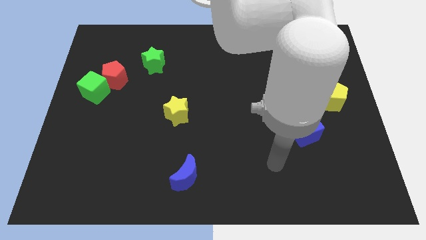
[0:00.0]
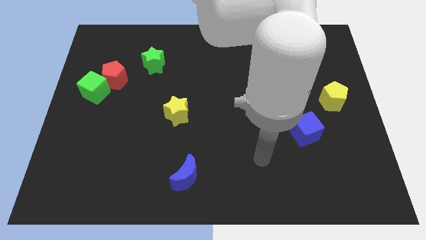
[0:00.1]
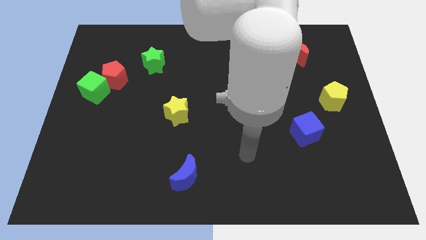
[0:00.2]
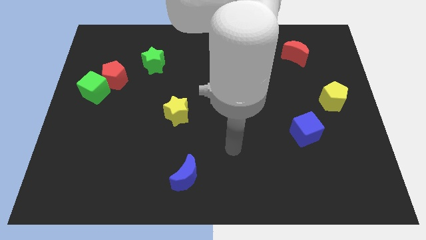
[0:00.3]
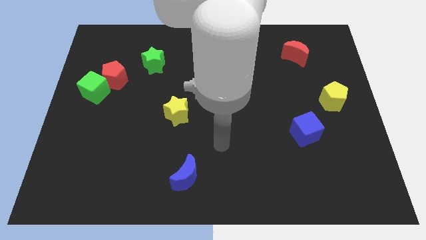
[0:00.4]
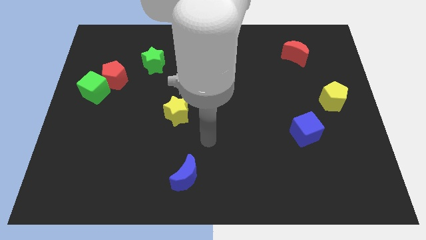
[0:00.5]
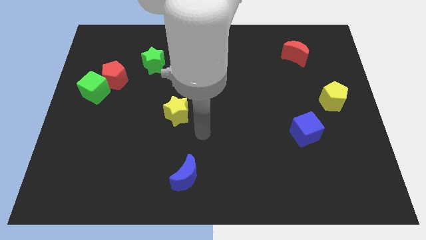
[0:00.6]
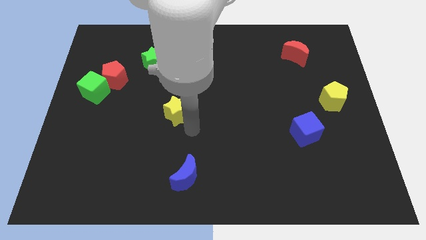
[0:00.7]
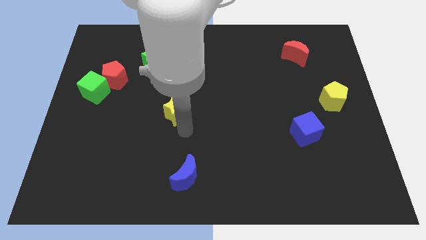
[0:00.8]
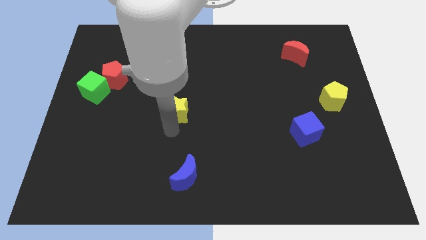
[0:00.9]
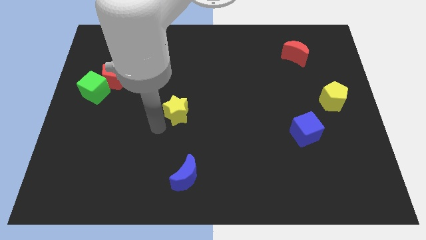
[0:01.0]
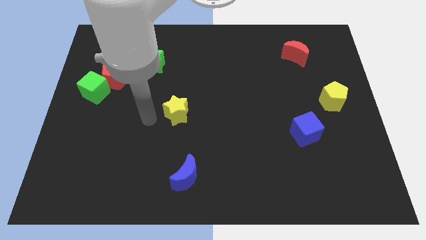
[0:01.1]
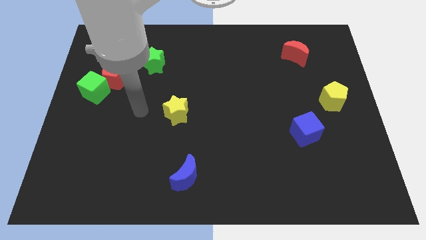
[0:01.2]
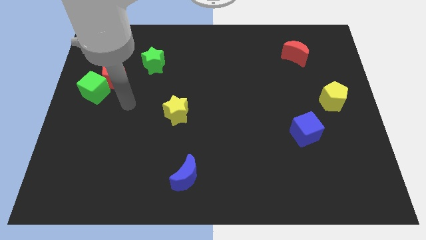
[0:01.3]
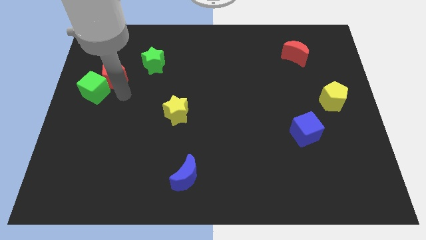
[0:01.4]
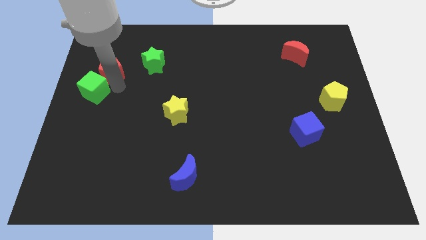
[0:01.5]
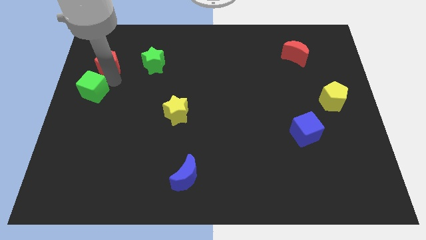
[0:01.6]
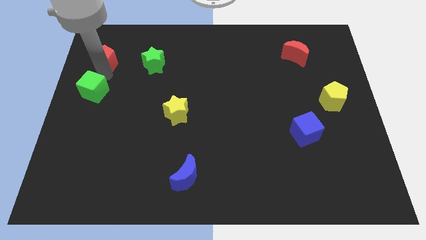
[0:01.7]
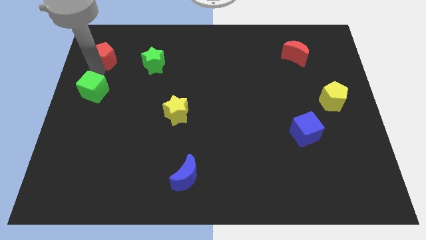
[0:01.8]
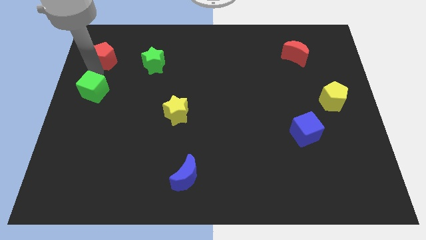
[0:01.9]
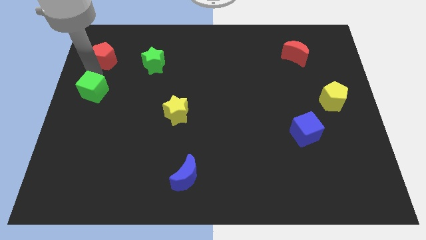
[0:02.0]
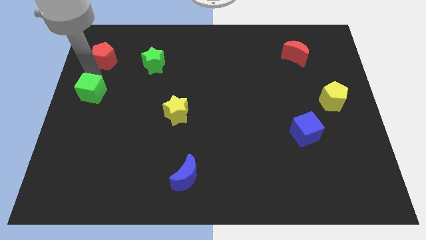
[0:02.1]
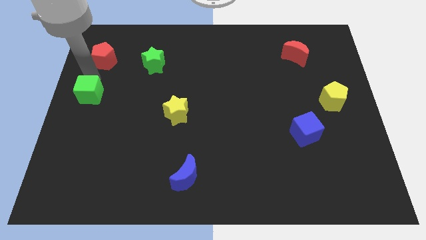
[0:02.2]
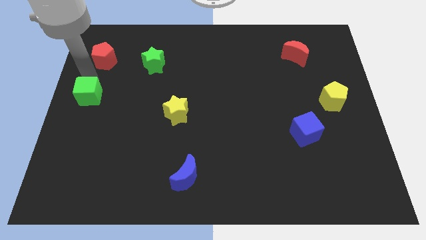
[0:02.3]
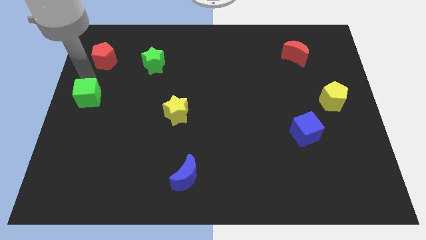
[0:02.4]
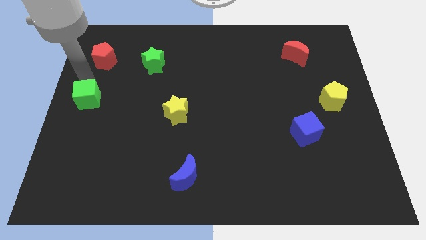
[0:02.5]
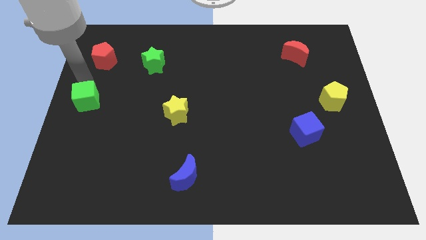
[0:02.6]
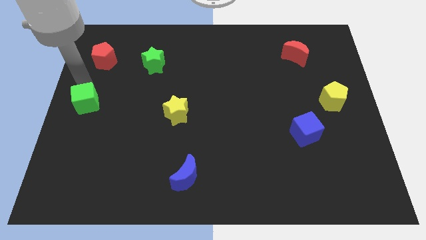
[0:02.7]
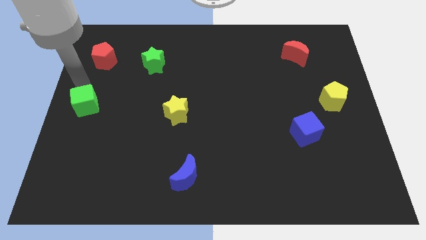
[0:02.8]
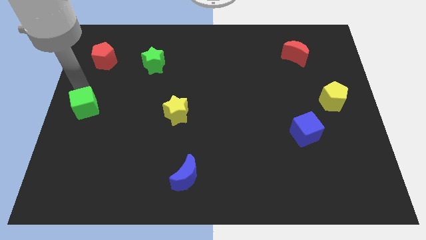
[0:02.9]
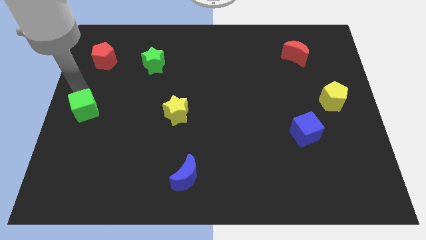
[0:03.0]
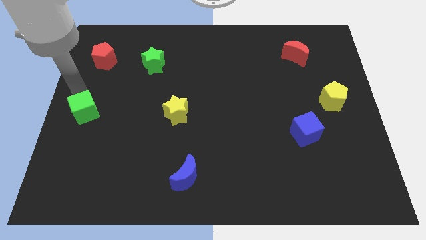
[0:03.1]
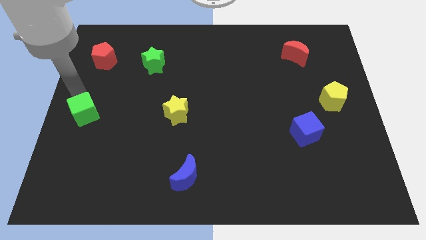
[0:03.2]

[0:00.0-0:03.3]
slide the green cube down a little bit

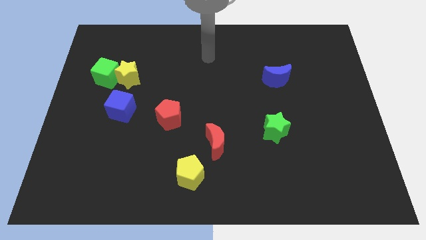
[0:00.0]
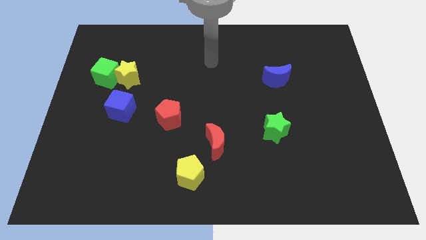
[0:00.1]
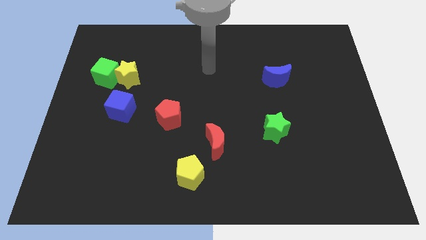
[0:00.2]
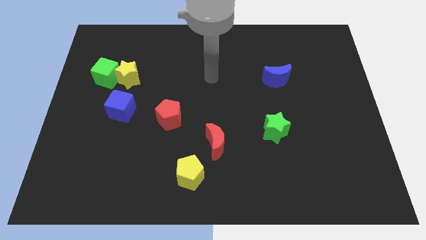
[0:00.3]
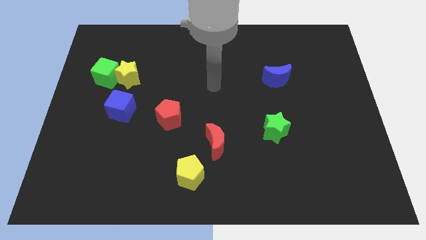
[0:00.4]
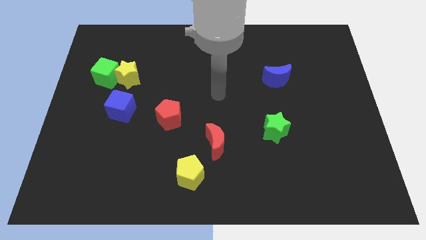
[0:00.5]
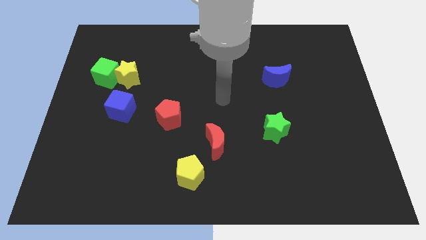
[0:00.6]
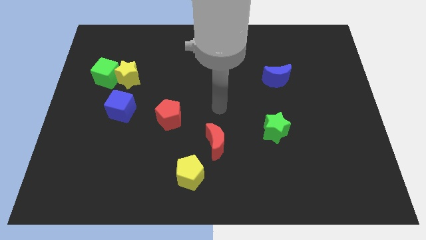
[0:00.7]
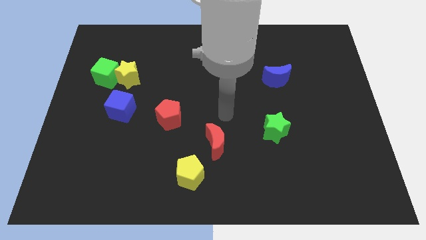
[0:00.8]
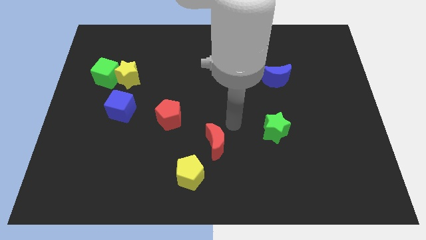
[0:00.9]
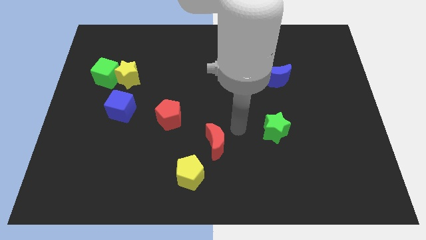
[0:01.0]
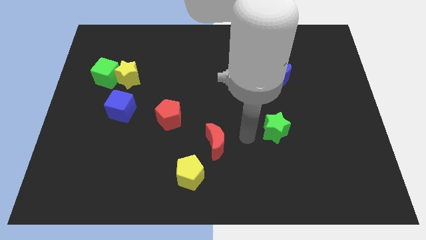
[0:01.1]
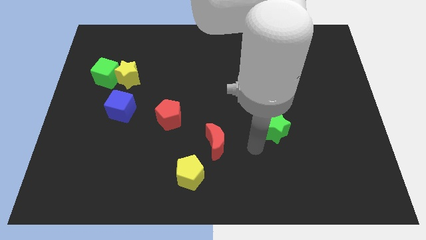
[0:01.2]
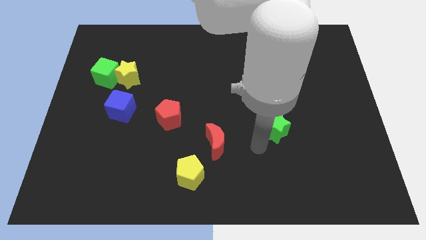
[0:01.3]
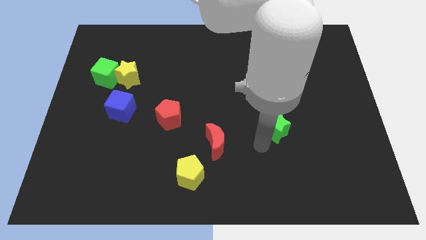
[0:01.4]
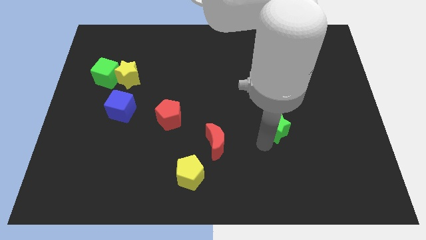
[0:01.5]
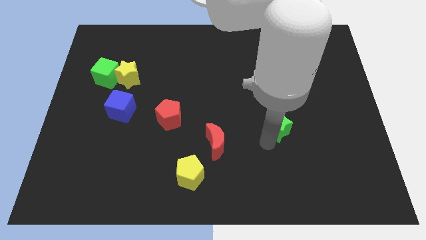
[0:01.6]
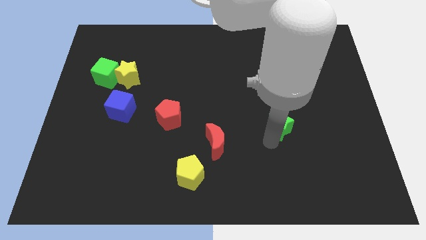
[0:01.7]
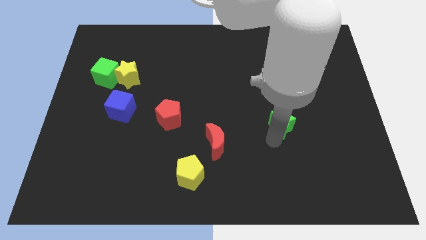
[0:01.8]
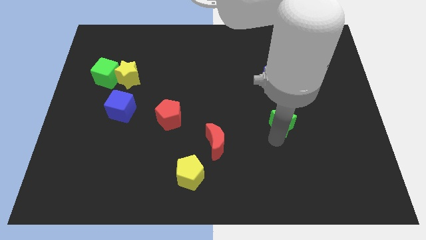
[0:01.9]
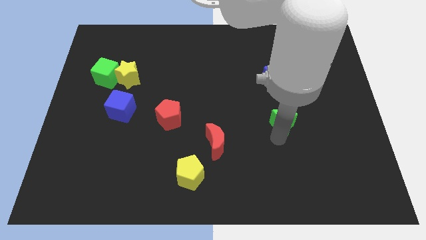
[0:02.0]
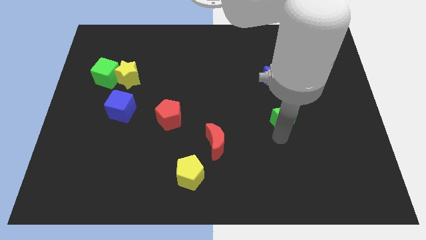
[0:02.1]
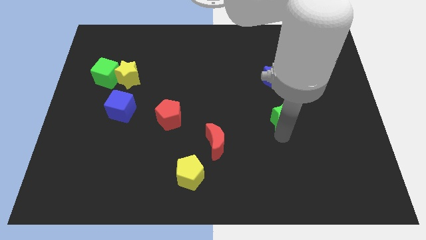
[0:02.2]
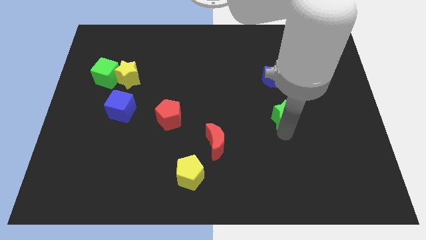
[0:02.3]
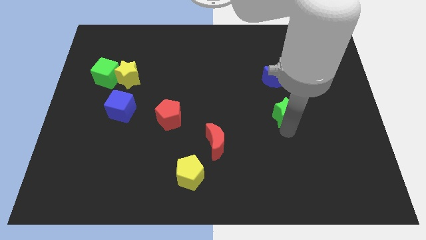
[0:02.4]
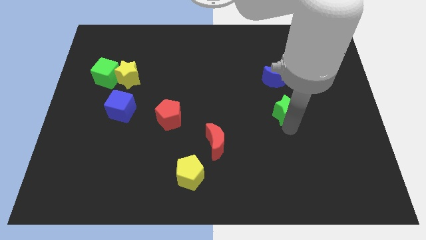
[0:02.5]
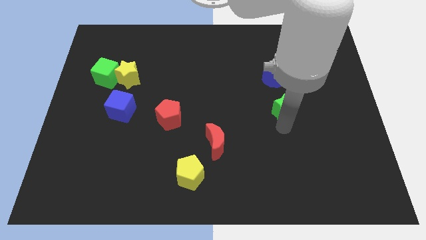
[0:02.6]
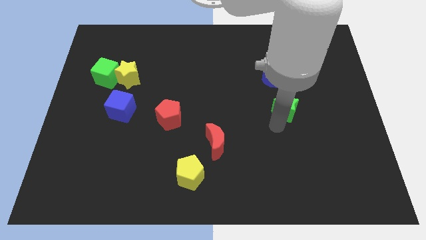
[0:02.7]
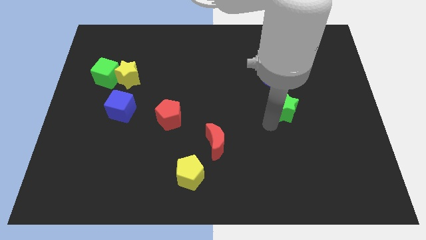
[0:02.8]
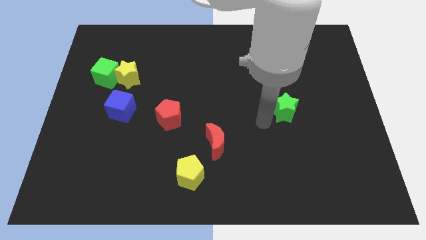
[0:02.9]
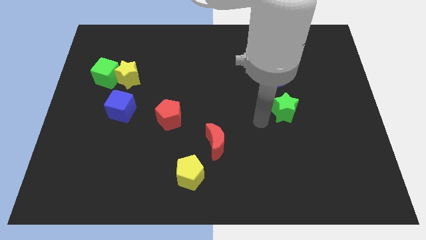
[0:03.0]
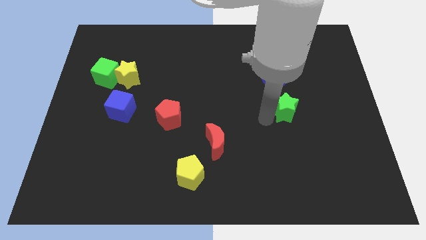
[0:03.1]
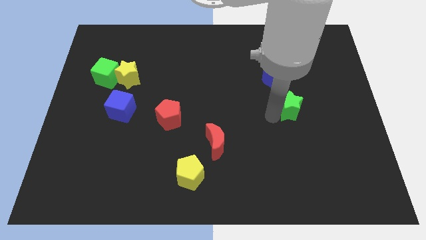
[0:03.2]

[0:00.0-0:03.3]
push the green star upwards and right somewhat

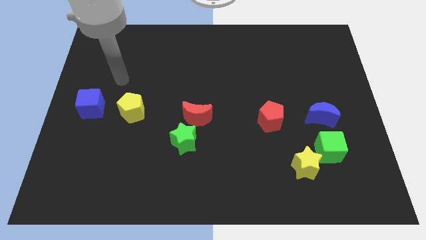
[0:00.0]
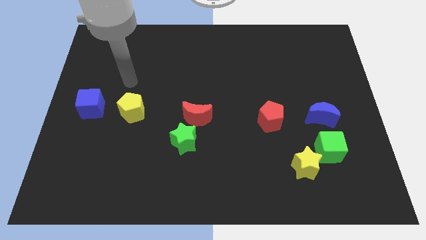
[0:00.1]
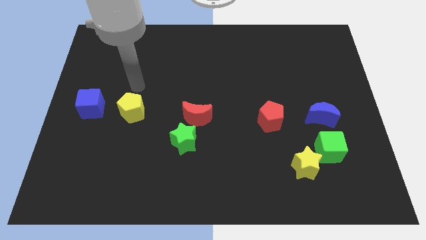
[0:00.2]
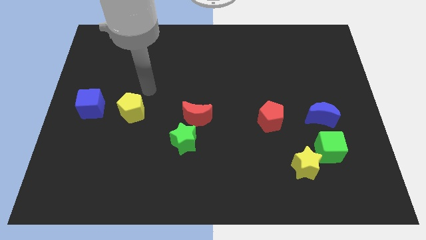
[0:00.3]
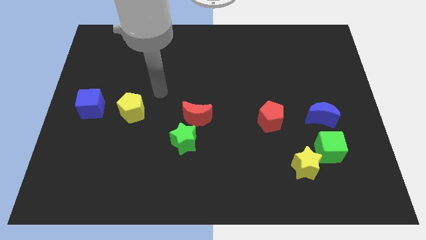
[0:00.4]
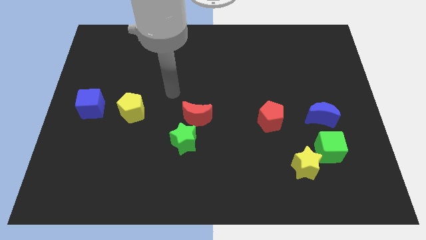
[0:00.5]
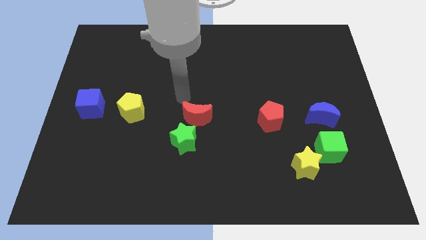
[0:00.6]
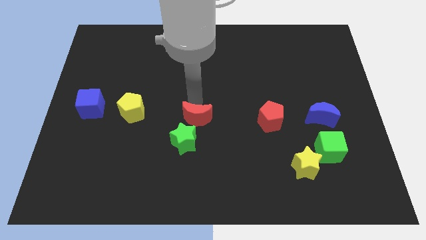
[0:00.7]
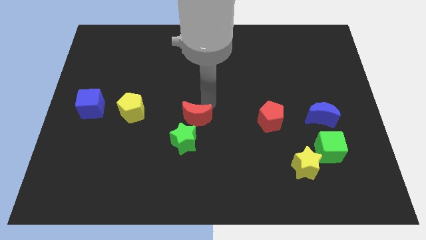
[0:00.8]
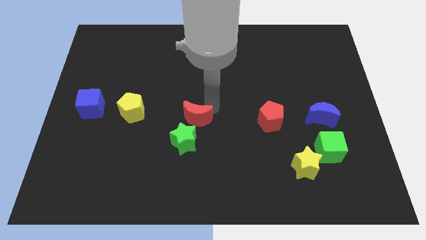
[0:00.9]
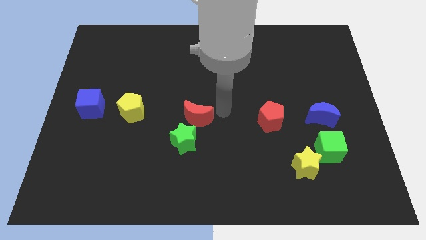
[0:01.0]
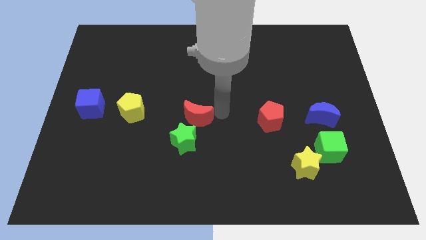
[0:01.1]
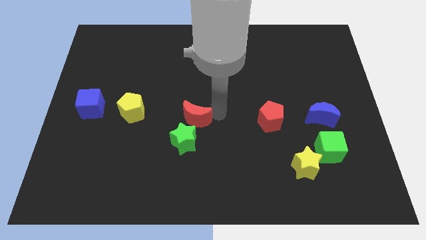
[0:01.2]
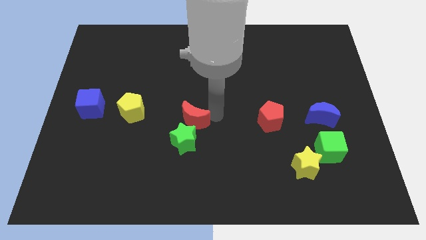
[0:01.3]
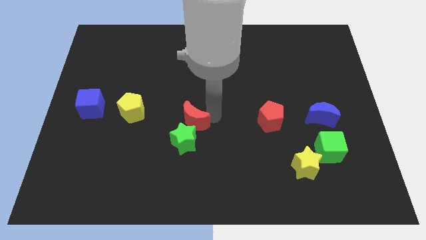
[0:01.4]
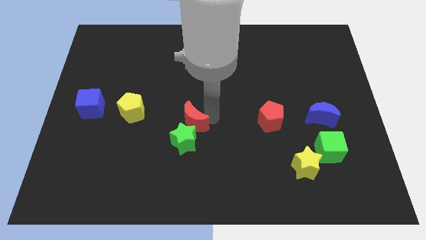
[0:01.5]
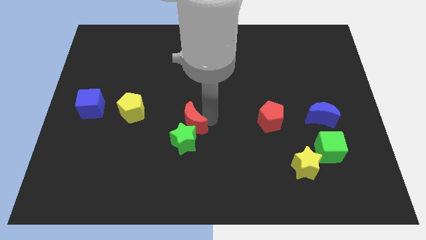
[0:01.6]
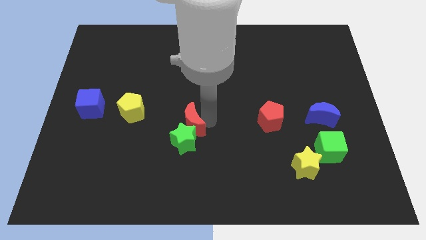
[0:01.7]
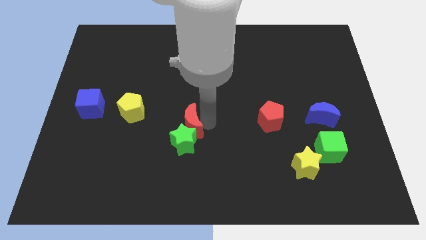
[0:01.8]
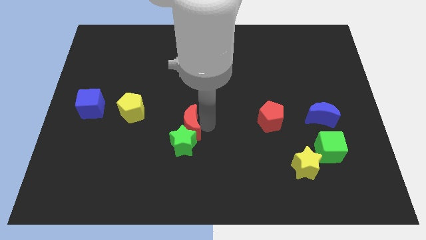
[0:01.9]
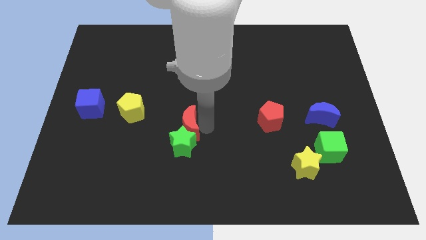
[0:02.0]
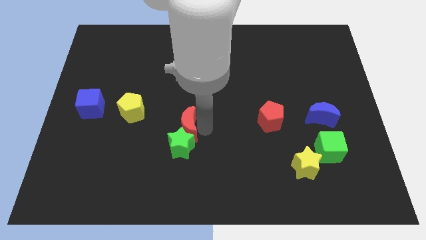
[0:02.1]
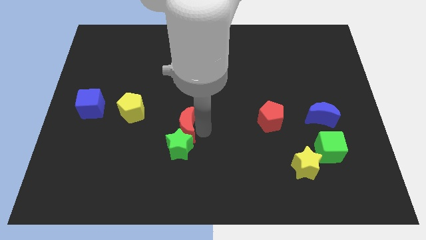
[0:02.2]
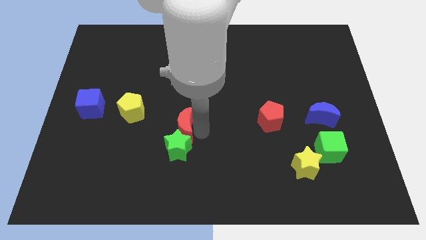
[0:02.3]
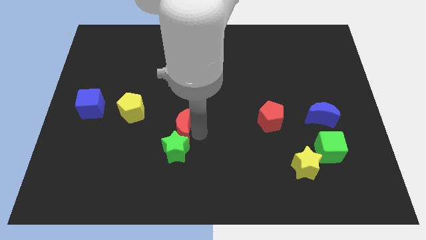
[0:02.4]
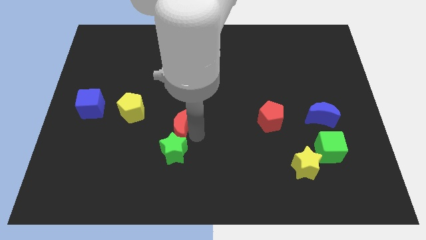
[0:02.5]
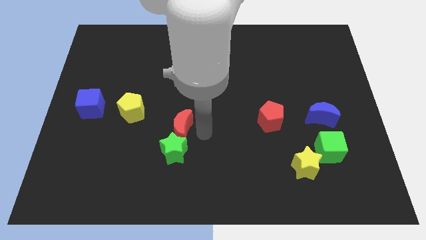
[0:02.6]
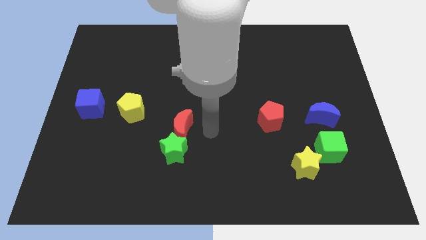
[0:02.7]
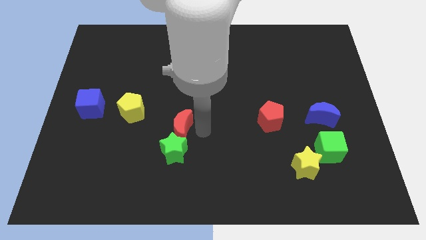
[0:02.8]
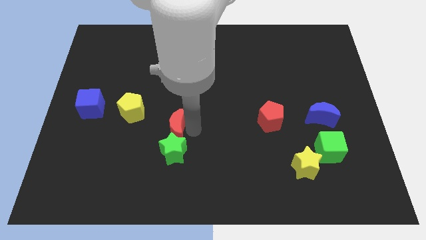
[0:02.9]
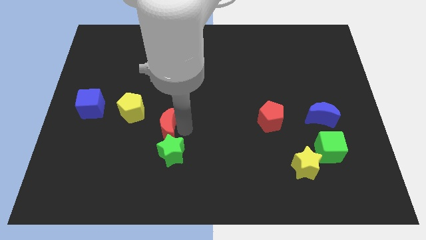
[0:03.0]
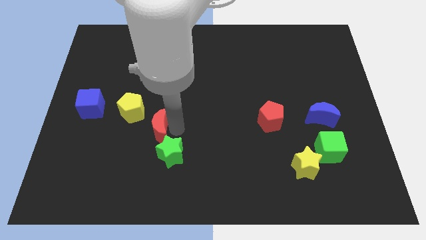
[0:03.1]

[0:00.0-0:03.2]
slide the red moon left a little
